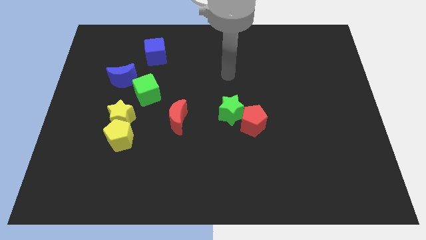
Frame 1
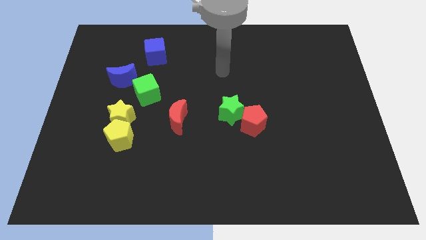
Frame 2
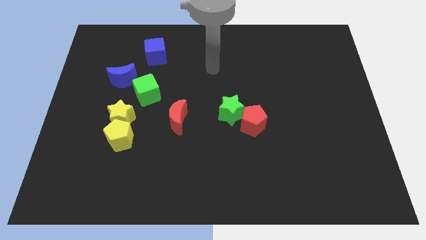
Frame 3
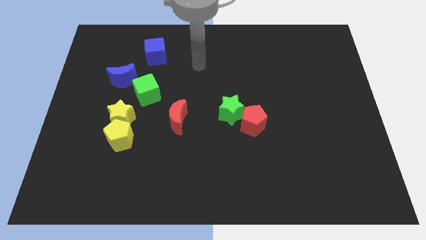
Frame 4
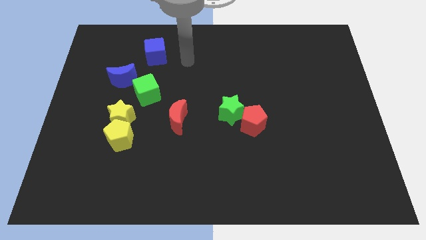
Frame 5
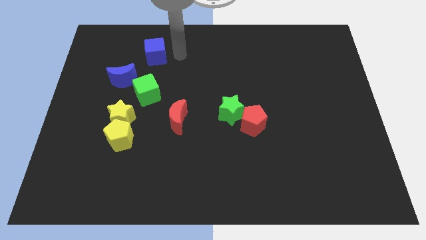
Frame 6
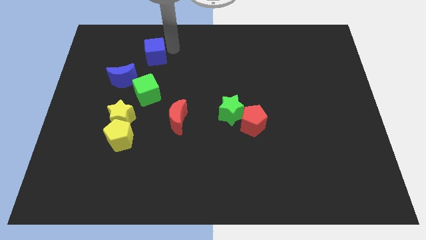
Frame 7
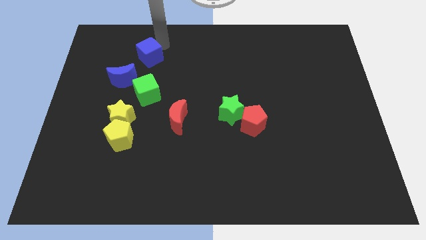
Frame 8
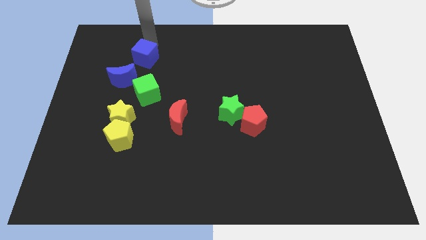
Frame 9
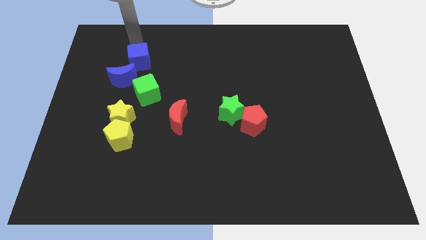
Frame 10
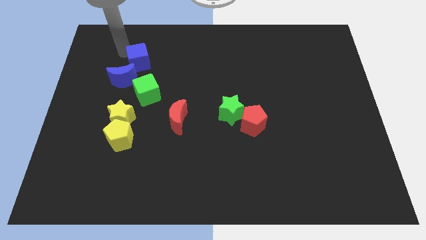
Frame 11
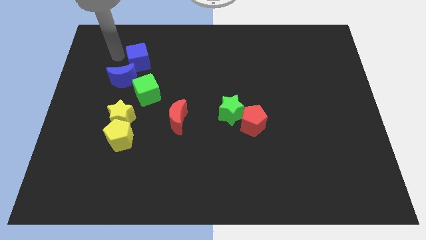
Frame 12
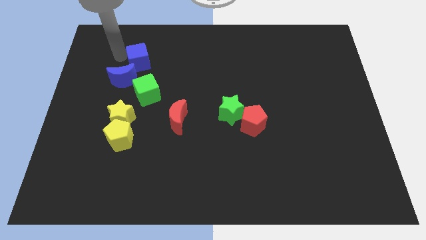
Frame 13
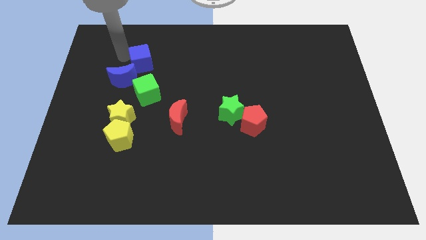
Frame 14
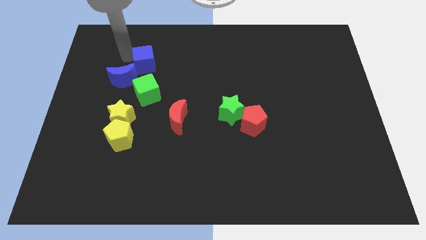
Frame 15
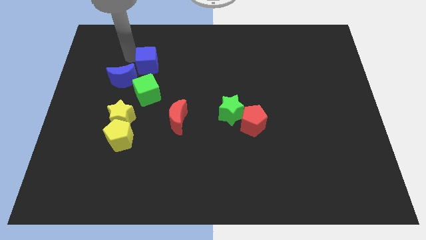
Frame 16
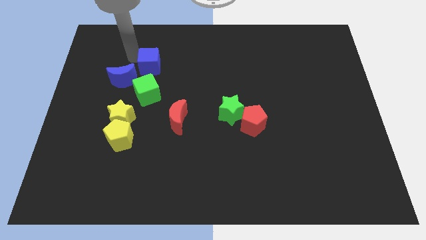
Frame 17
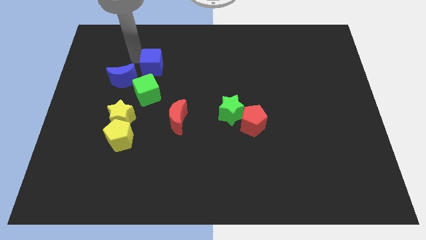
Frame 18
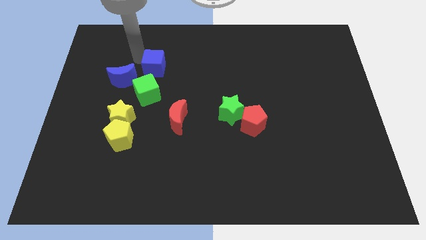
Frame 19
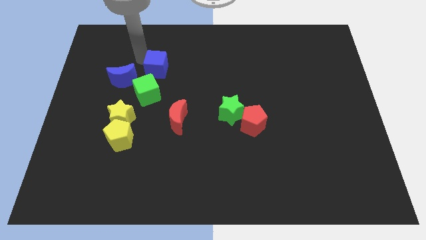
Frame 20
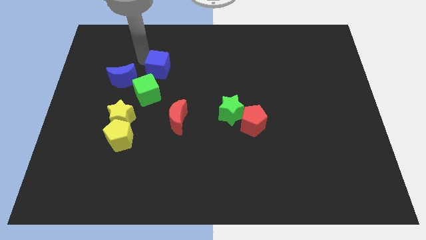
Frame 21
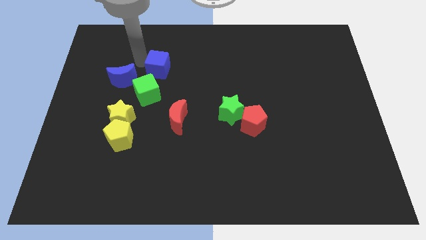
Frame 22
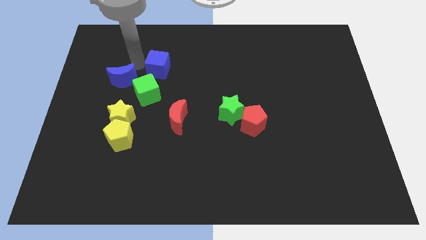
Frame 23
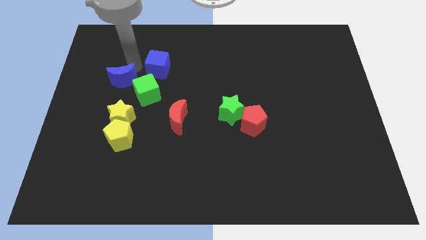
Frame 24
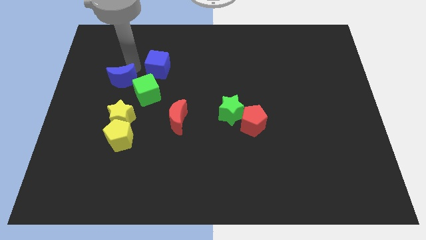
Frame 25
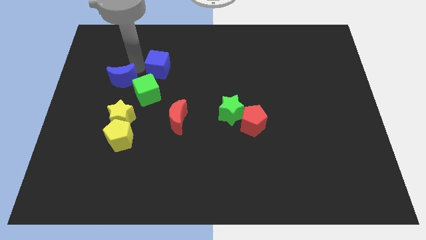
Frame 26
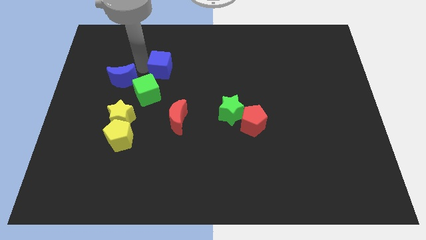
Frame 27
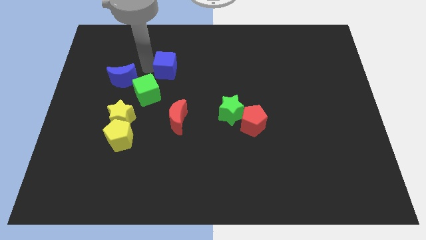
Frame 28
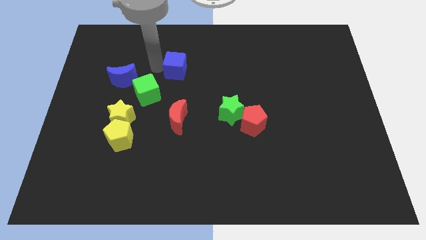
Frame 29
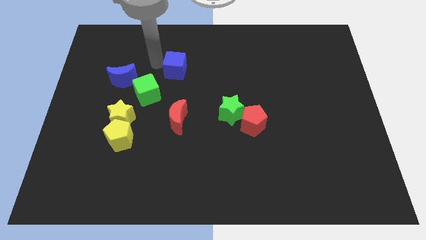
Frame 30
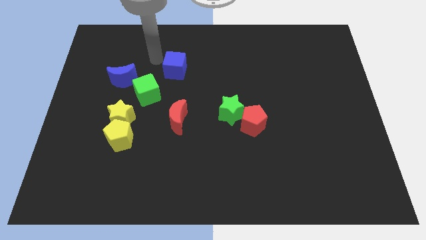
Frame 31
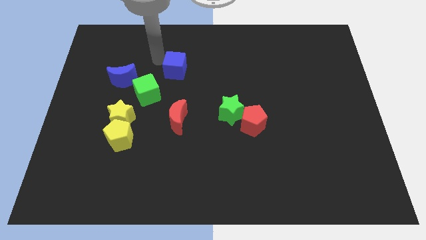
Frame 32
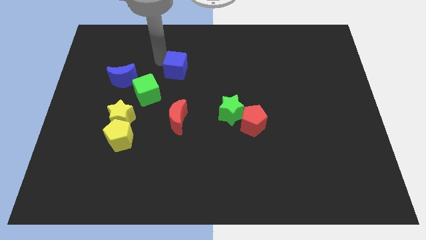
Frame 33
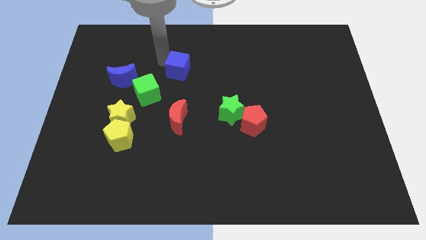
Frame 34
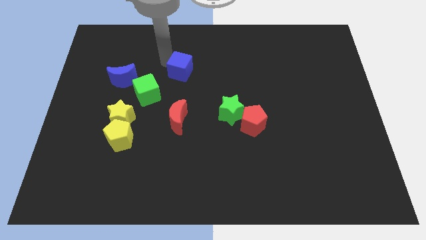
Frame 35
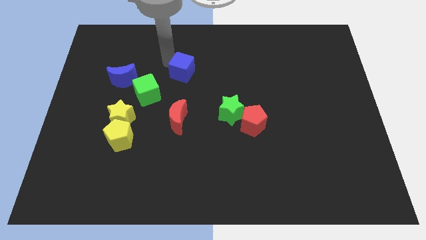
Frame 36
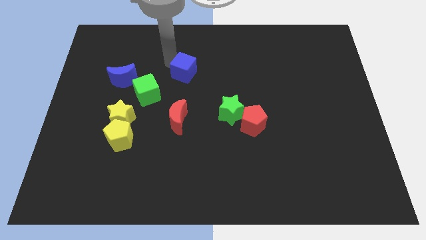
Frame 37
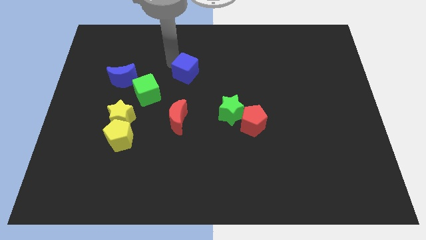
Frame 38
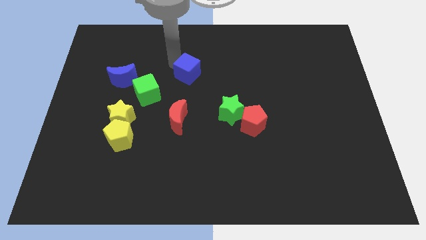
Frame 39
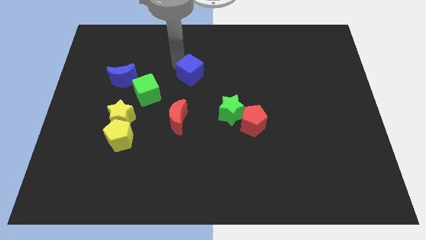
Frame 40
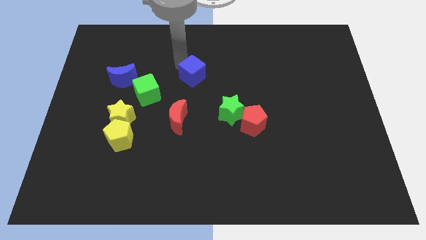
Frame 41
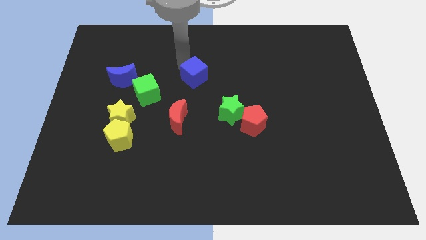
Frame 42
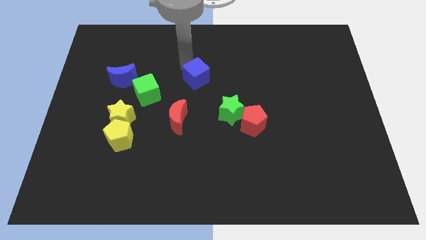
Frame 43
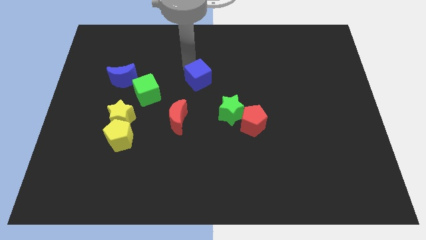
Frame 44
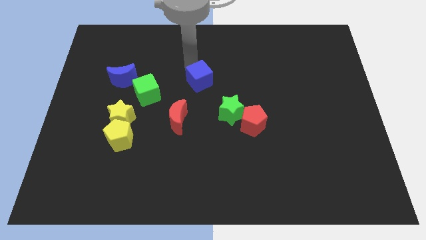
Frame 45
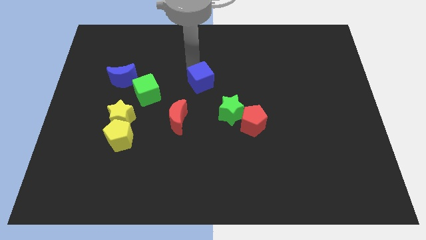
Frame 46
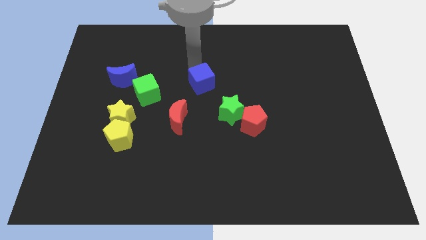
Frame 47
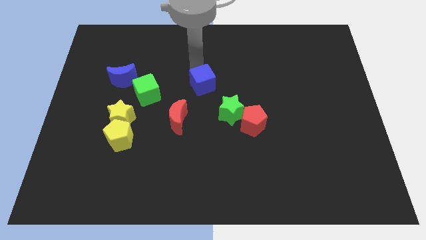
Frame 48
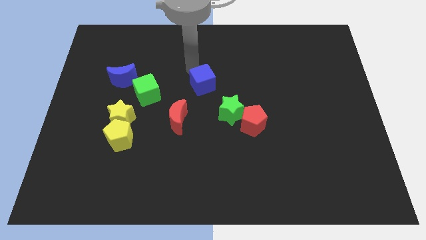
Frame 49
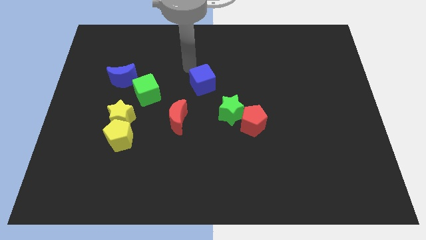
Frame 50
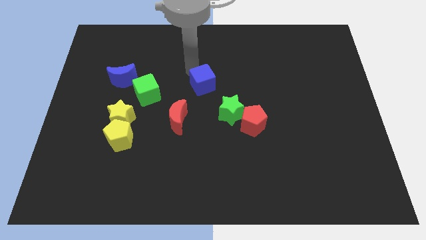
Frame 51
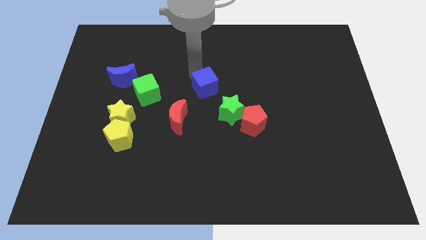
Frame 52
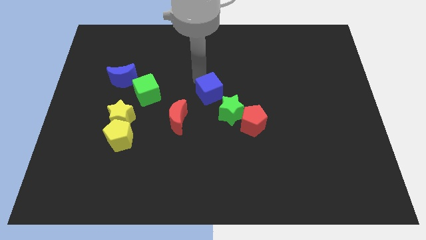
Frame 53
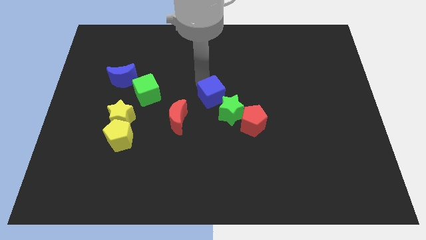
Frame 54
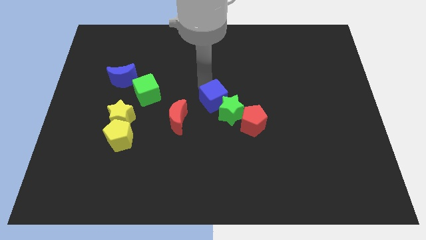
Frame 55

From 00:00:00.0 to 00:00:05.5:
move the blue cube close to the green star

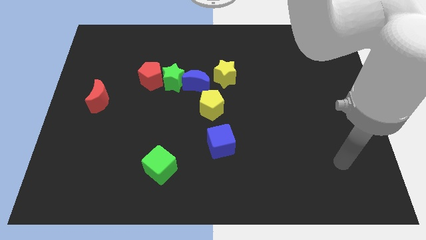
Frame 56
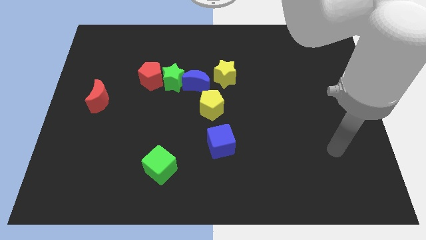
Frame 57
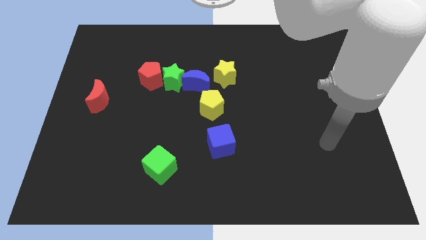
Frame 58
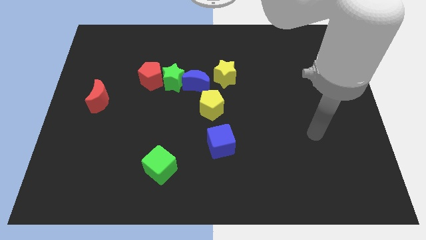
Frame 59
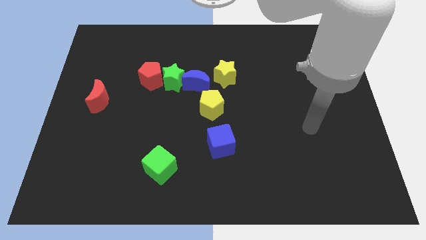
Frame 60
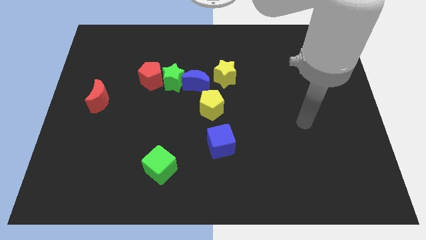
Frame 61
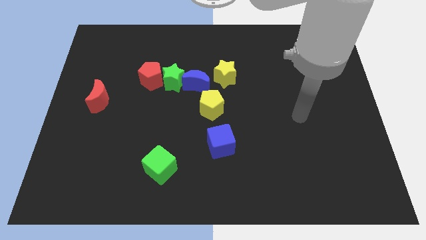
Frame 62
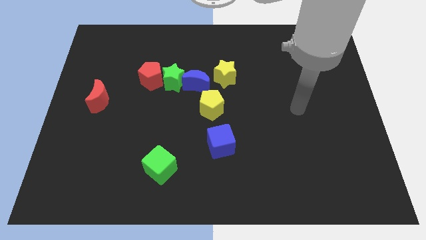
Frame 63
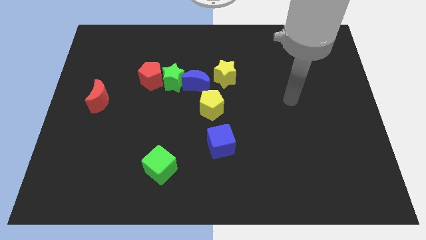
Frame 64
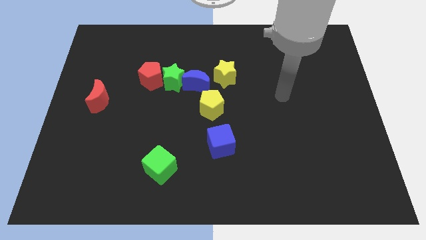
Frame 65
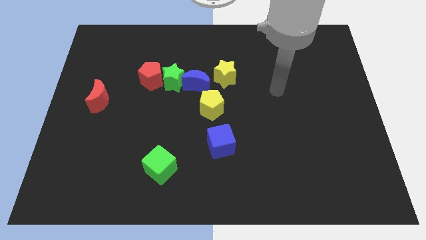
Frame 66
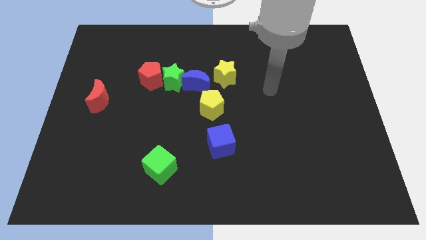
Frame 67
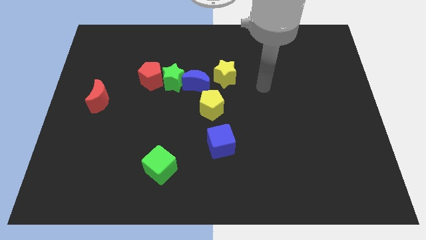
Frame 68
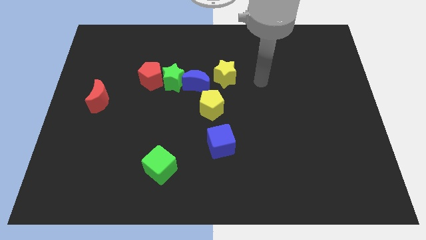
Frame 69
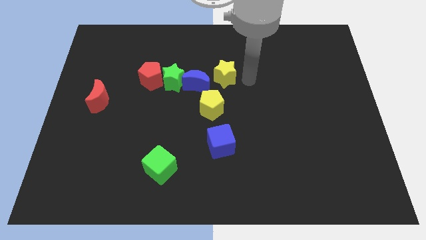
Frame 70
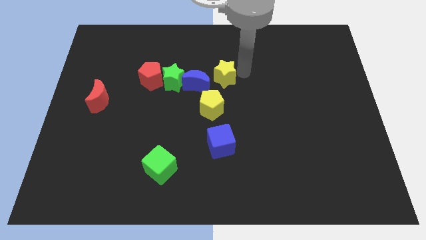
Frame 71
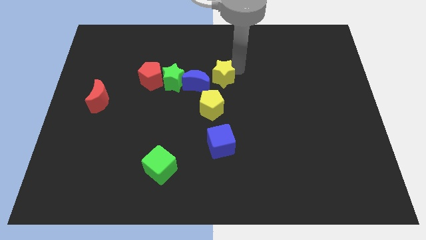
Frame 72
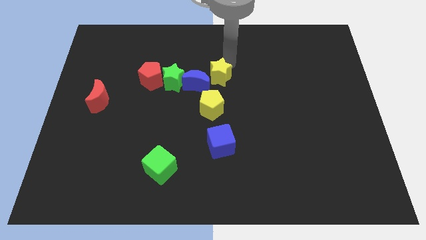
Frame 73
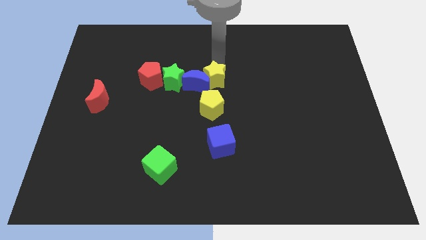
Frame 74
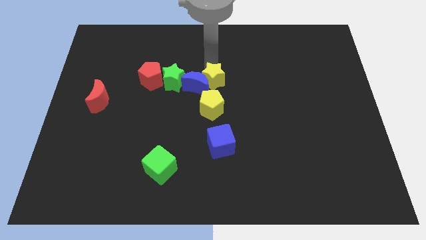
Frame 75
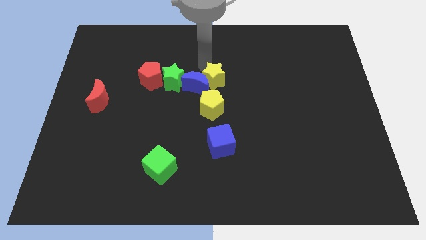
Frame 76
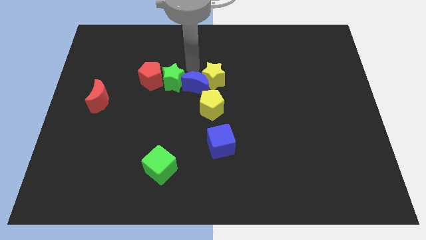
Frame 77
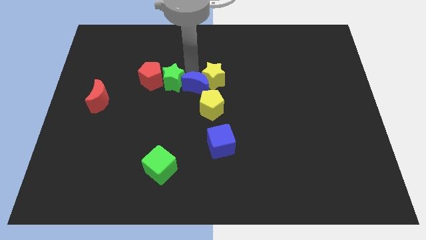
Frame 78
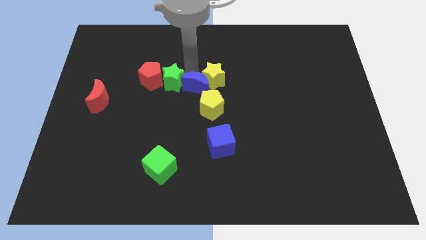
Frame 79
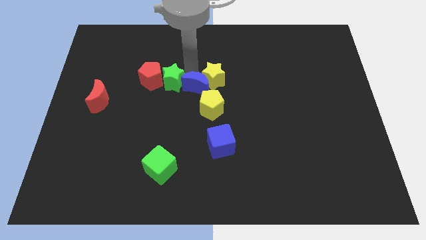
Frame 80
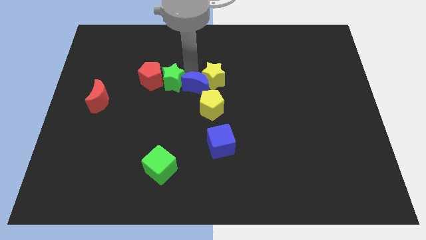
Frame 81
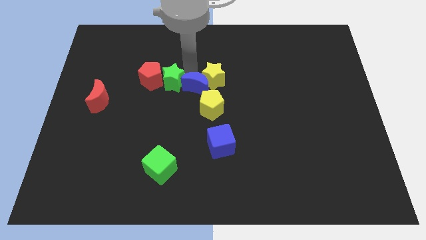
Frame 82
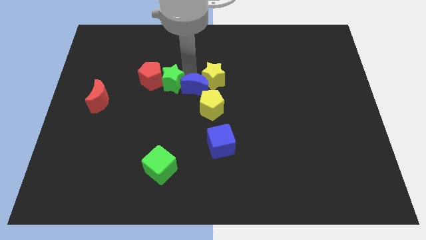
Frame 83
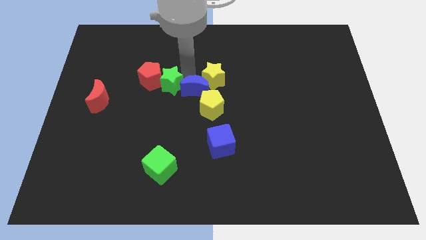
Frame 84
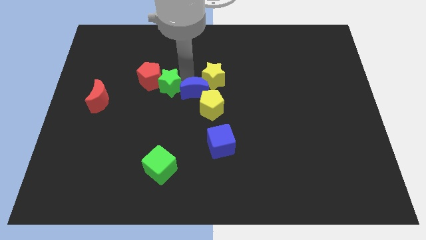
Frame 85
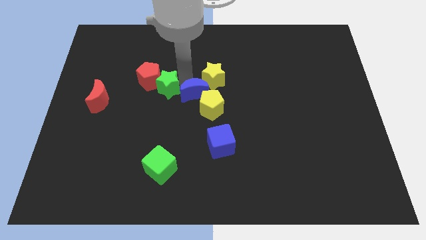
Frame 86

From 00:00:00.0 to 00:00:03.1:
slide the blue moon next to the yellow pentagon
